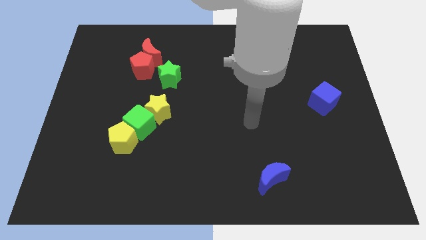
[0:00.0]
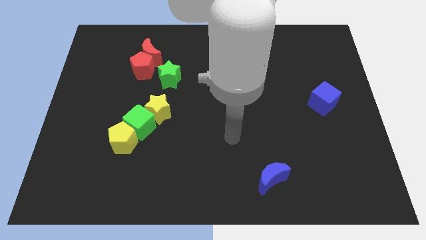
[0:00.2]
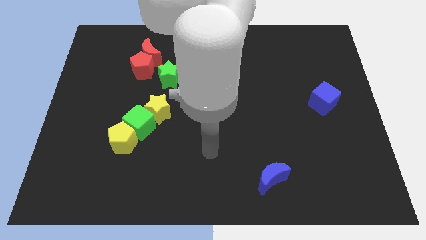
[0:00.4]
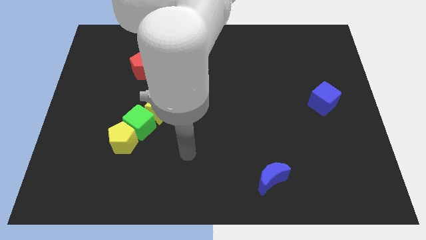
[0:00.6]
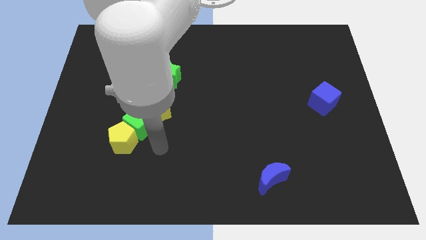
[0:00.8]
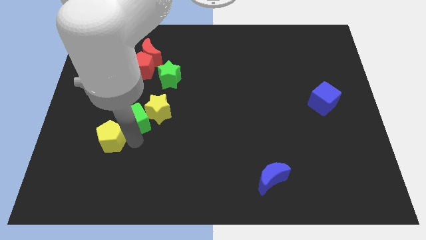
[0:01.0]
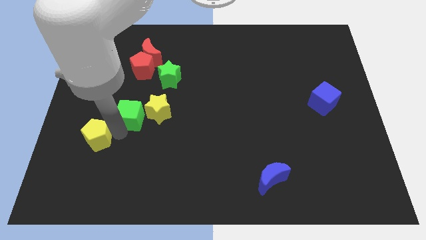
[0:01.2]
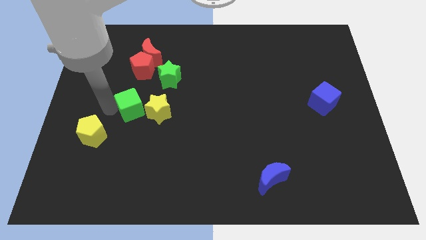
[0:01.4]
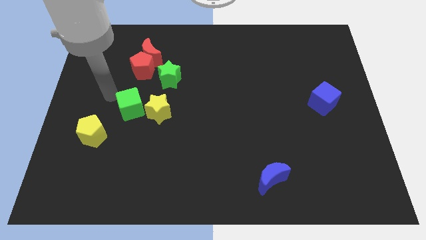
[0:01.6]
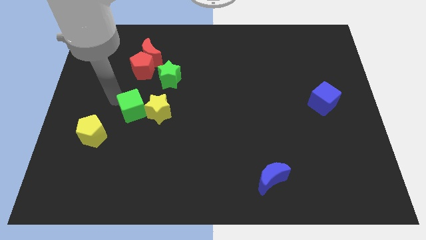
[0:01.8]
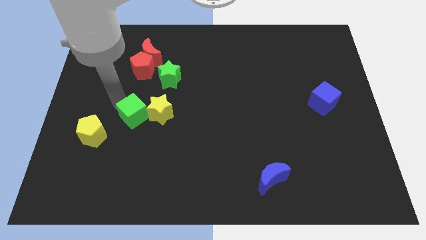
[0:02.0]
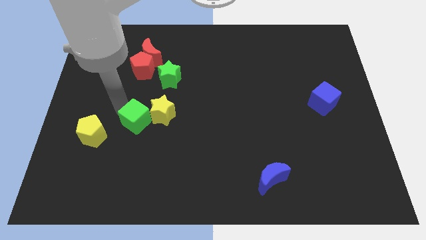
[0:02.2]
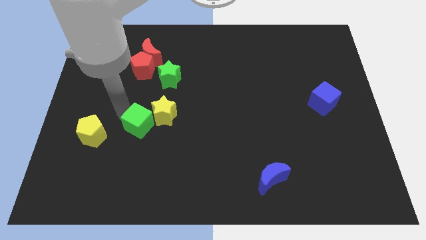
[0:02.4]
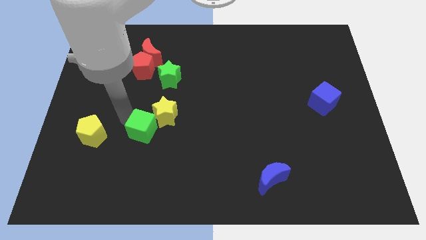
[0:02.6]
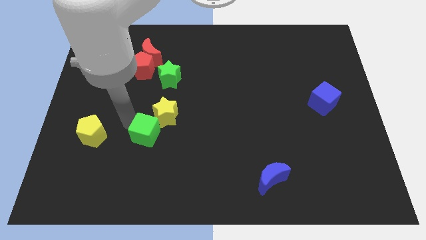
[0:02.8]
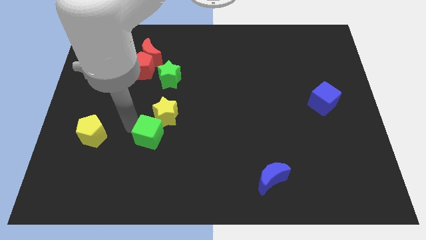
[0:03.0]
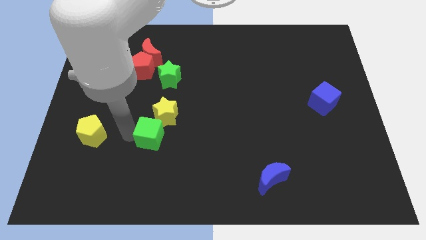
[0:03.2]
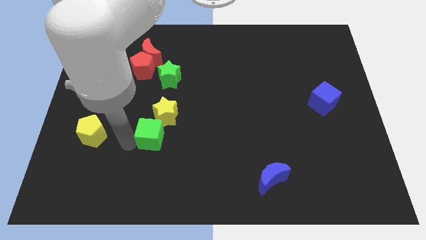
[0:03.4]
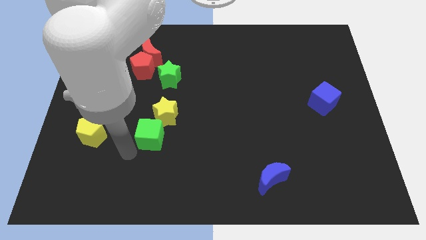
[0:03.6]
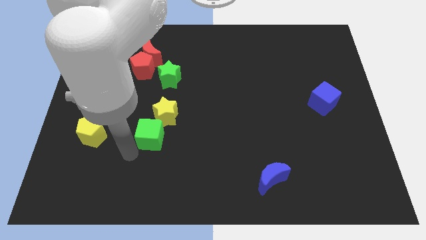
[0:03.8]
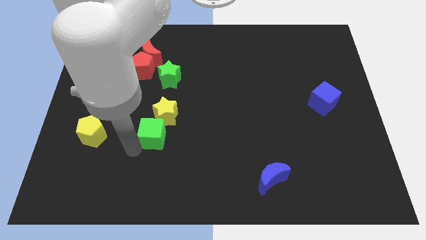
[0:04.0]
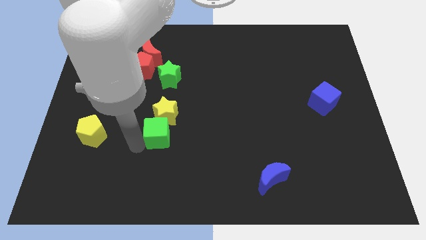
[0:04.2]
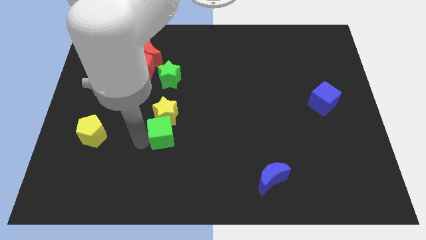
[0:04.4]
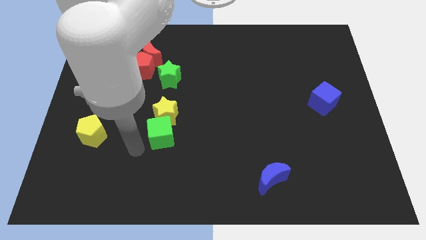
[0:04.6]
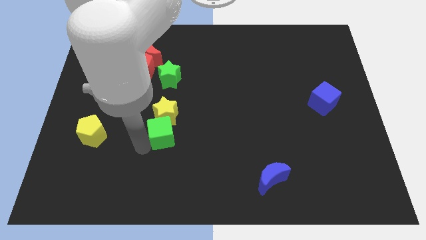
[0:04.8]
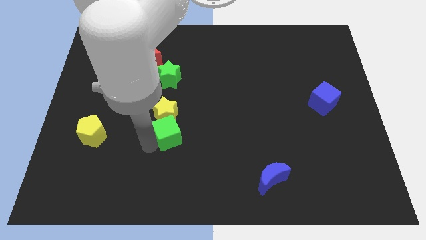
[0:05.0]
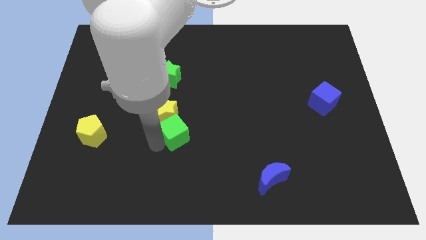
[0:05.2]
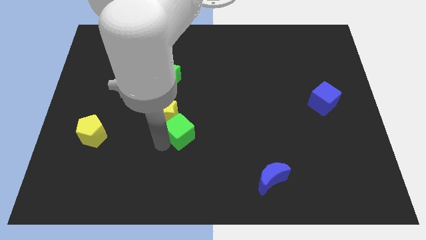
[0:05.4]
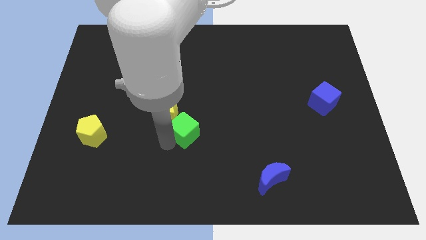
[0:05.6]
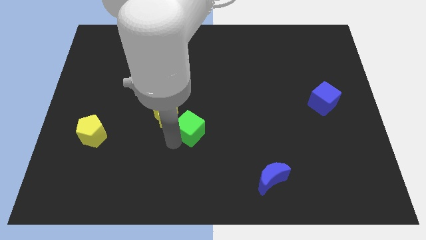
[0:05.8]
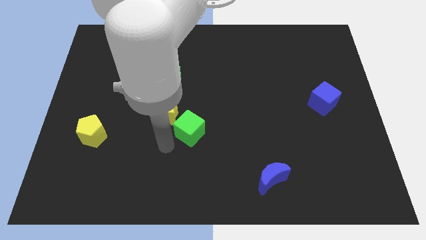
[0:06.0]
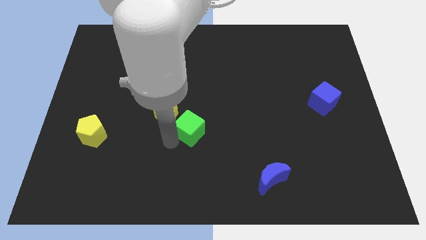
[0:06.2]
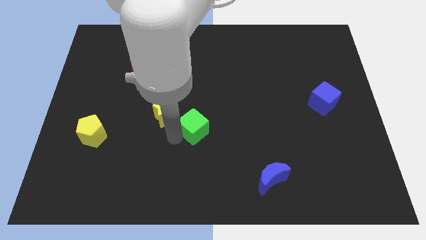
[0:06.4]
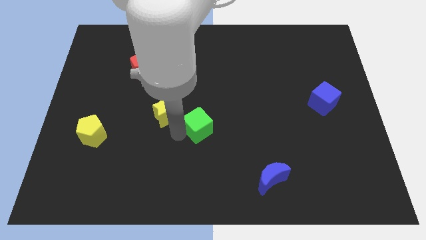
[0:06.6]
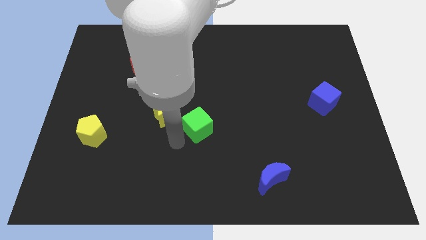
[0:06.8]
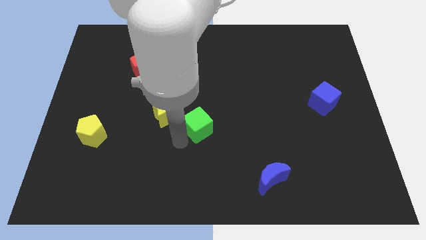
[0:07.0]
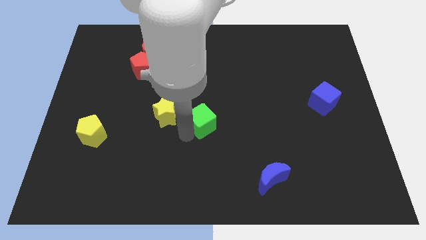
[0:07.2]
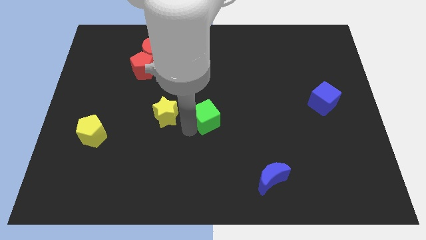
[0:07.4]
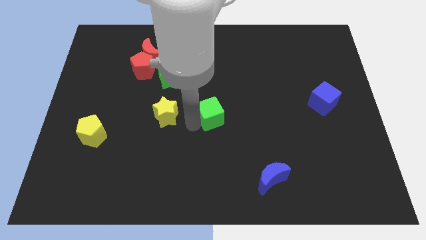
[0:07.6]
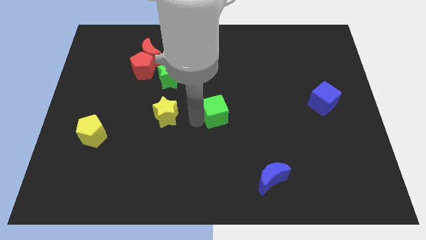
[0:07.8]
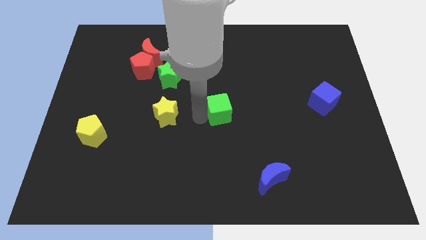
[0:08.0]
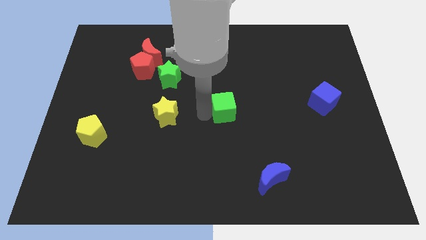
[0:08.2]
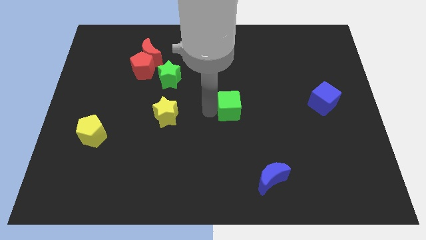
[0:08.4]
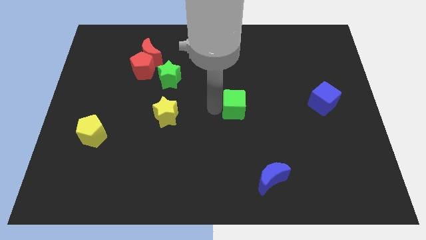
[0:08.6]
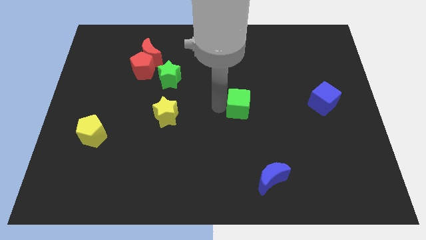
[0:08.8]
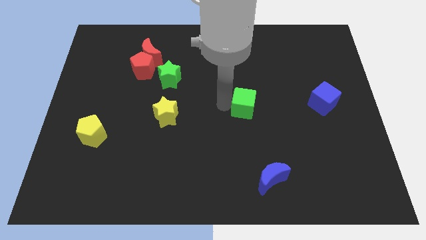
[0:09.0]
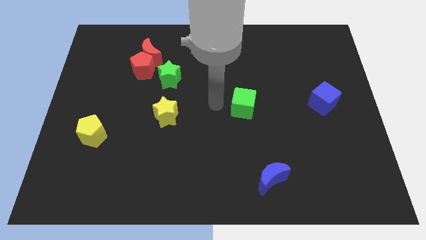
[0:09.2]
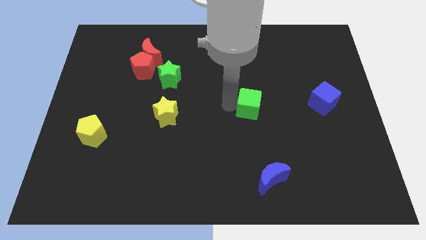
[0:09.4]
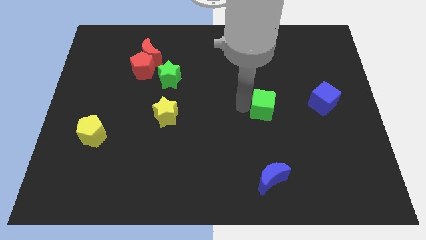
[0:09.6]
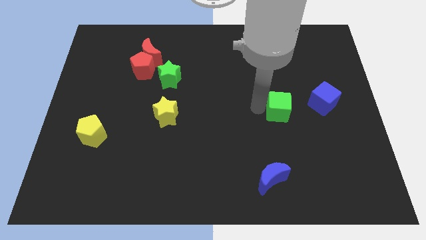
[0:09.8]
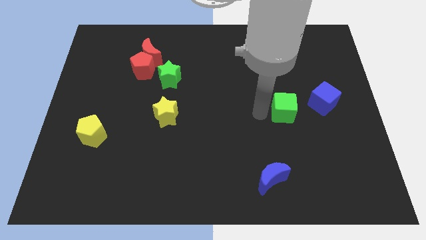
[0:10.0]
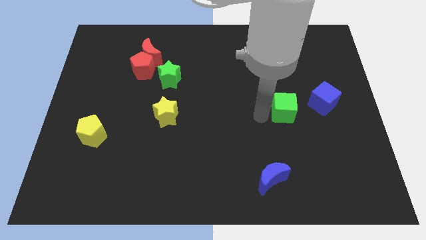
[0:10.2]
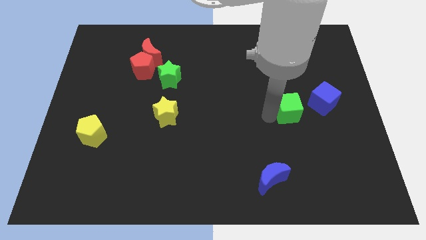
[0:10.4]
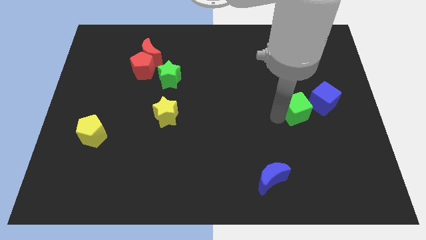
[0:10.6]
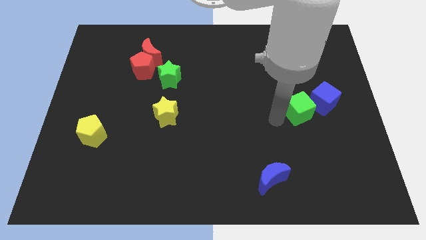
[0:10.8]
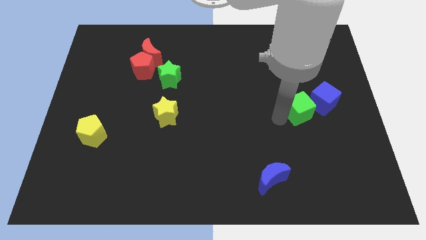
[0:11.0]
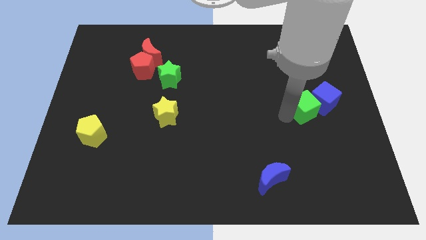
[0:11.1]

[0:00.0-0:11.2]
push the green cube towards the blue cube

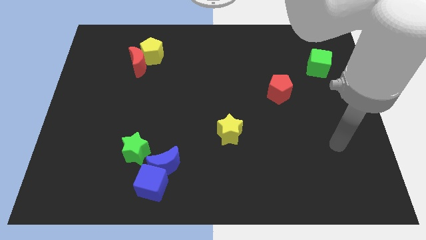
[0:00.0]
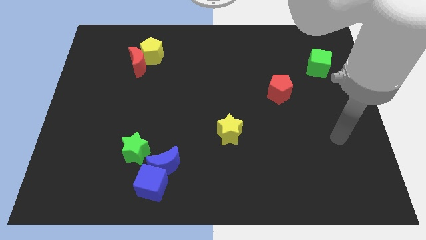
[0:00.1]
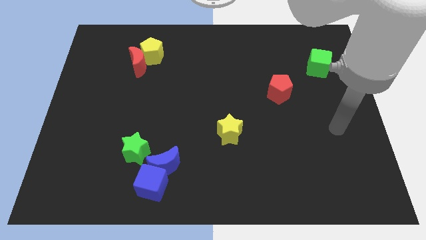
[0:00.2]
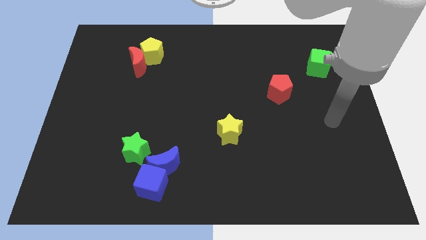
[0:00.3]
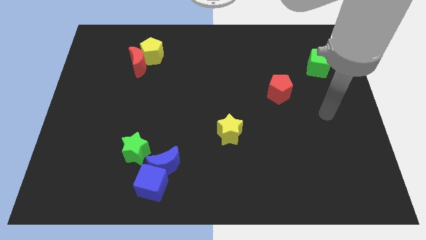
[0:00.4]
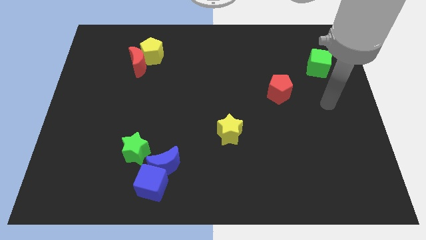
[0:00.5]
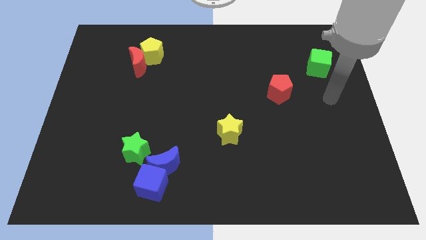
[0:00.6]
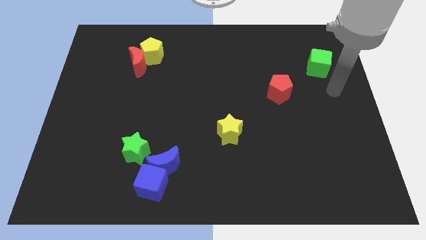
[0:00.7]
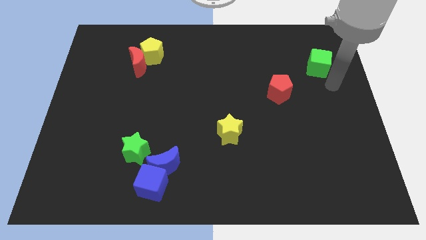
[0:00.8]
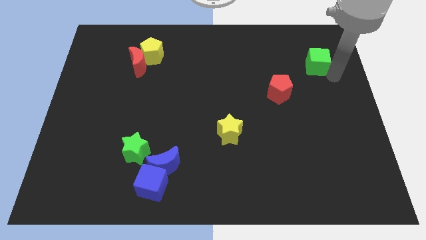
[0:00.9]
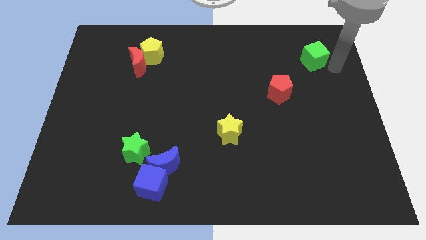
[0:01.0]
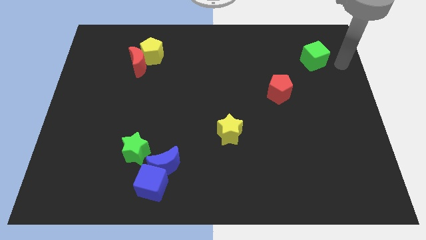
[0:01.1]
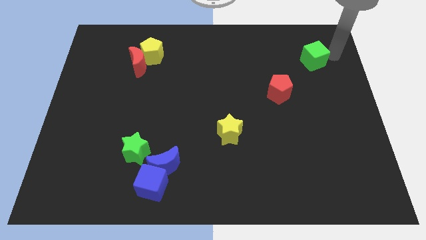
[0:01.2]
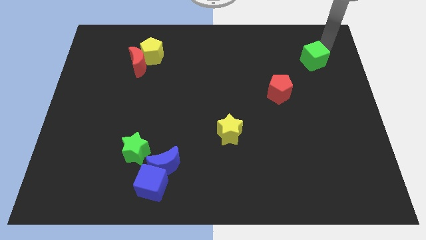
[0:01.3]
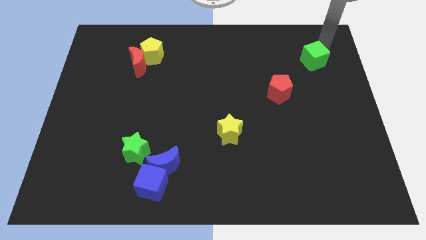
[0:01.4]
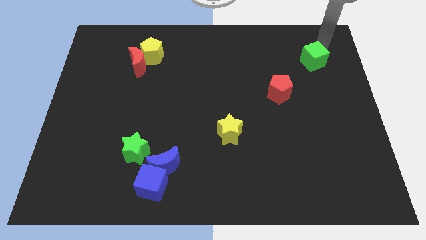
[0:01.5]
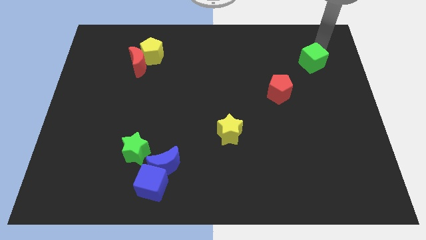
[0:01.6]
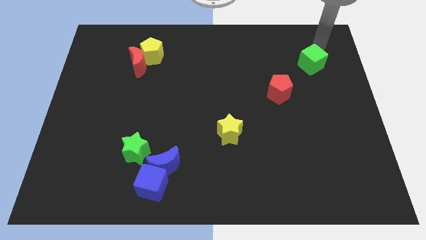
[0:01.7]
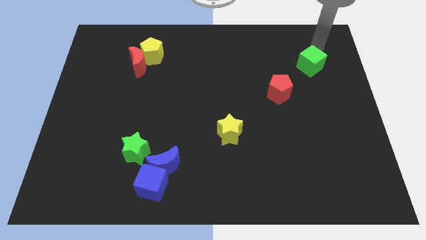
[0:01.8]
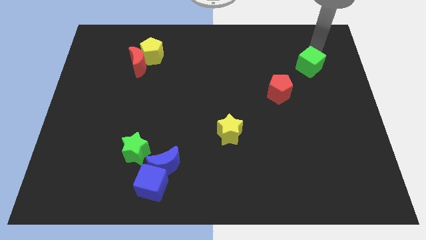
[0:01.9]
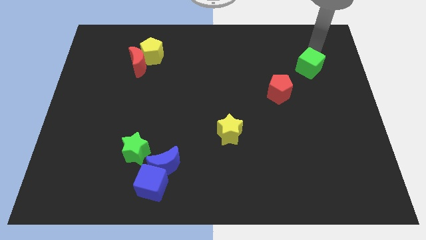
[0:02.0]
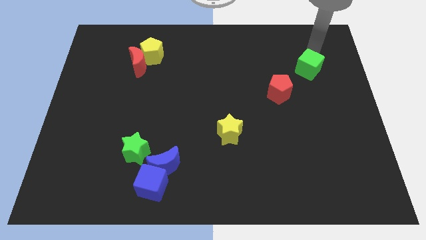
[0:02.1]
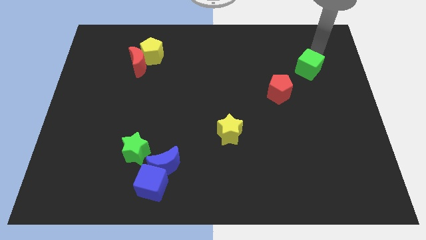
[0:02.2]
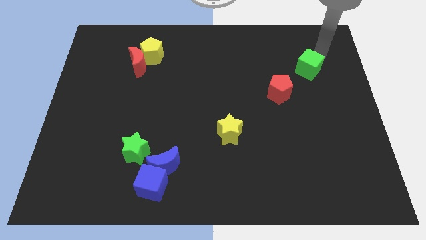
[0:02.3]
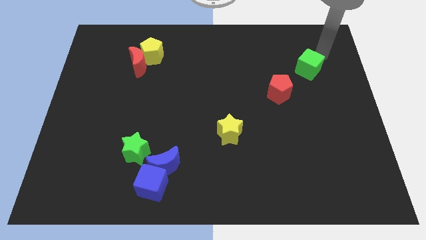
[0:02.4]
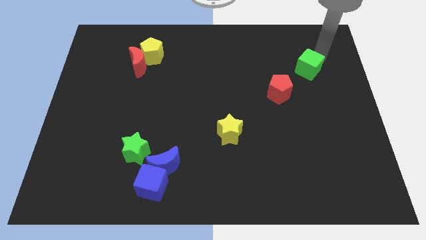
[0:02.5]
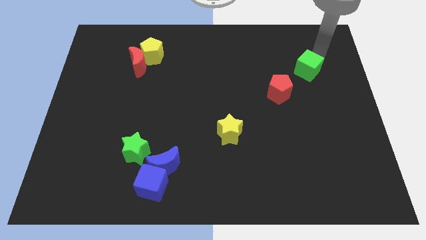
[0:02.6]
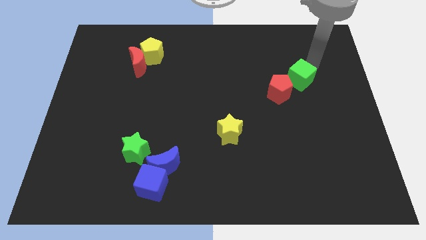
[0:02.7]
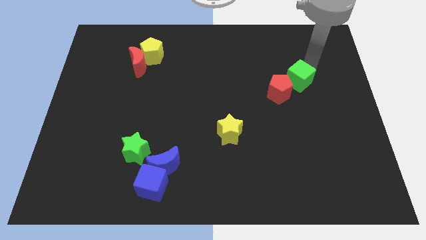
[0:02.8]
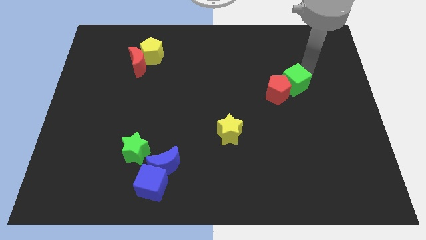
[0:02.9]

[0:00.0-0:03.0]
slide the green cube next to the red pentagon
